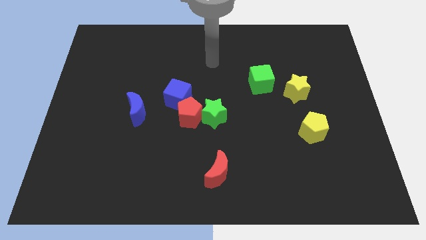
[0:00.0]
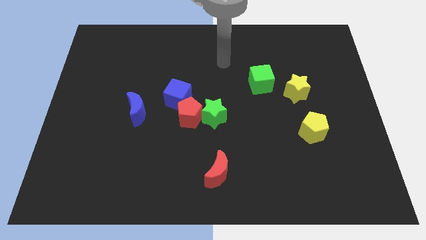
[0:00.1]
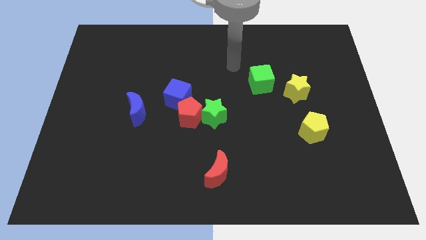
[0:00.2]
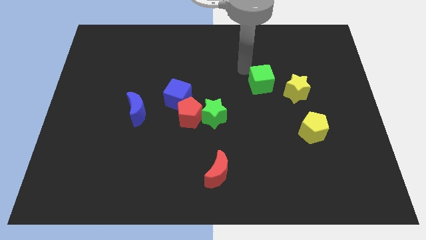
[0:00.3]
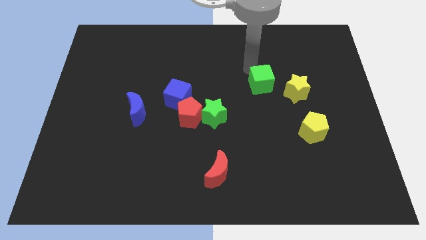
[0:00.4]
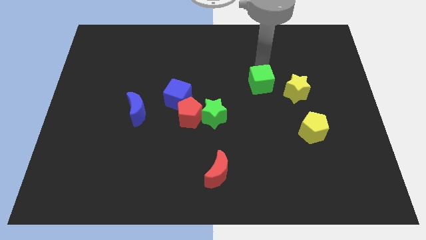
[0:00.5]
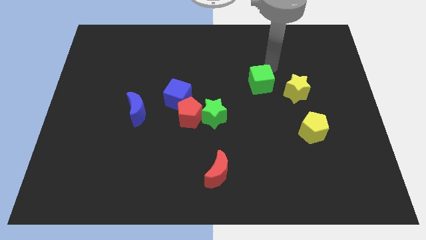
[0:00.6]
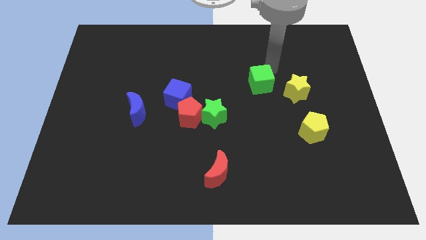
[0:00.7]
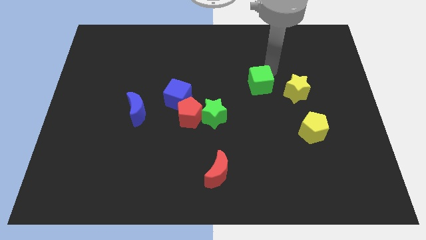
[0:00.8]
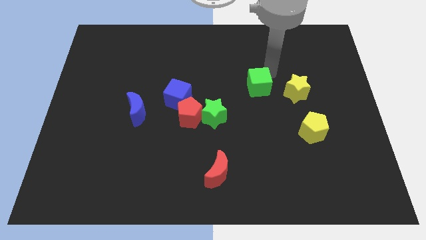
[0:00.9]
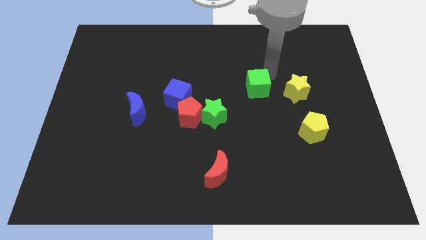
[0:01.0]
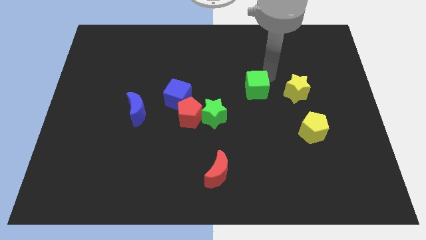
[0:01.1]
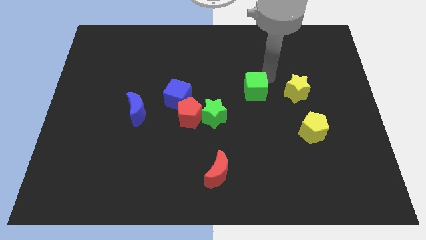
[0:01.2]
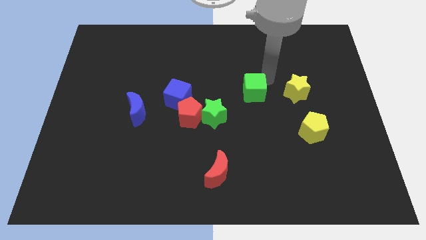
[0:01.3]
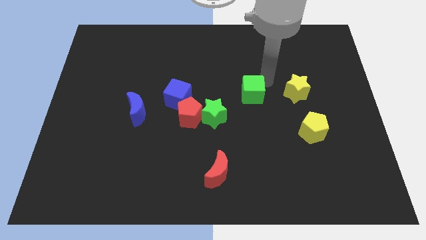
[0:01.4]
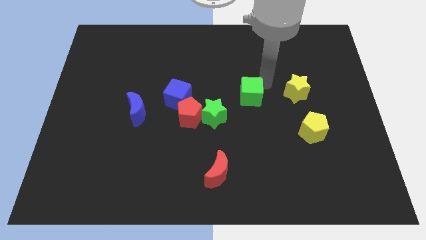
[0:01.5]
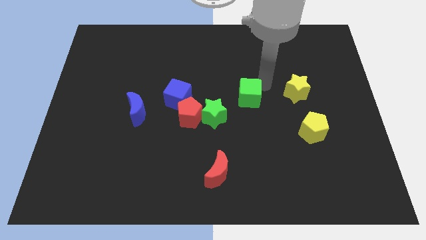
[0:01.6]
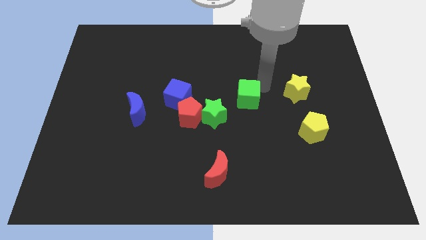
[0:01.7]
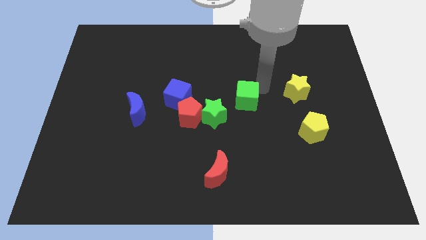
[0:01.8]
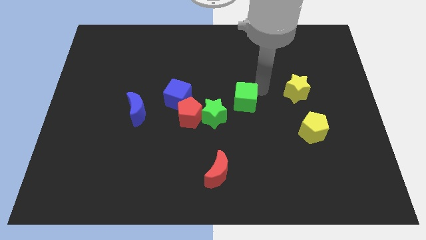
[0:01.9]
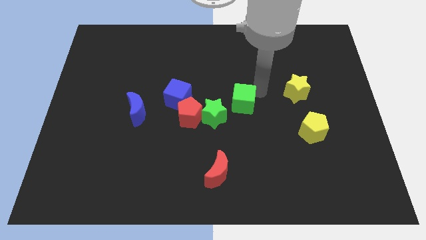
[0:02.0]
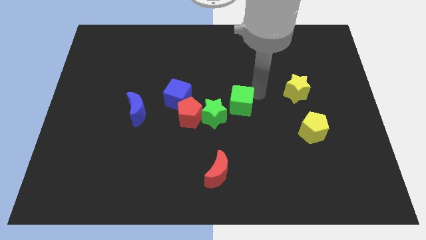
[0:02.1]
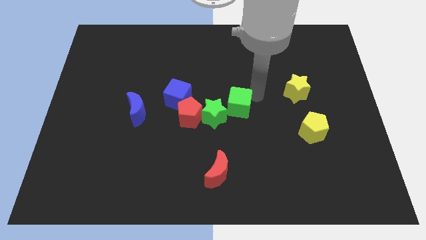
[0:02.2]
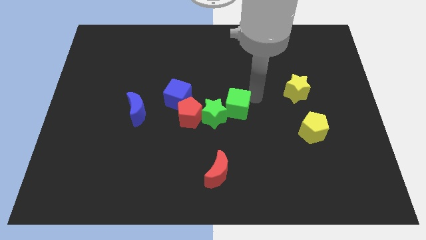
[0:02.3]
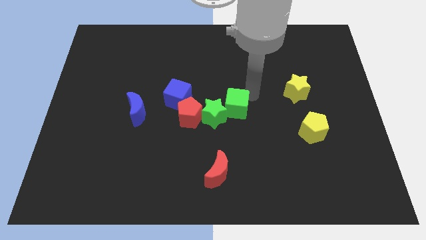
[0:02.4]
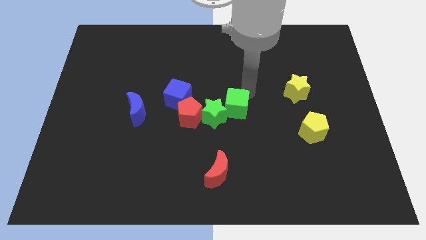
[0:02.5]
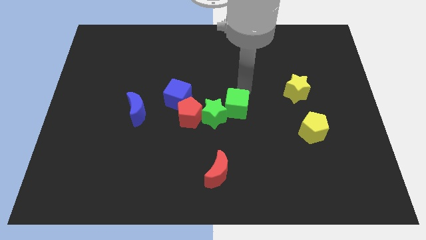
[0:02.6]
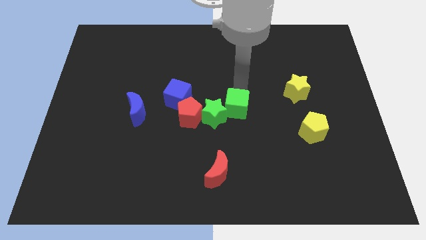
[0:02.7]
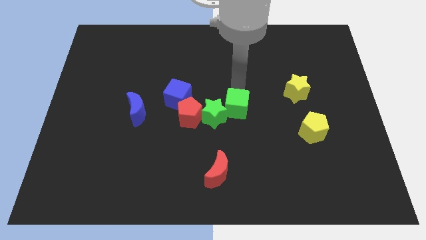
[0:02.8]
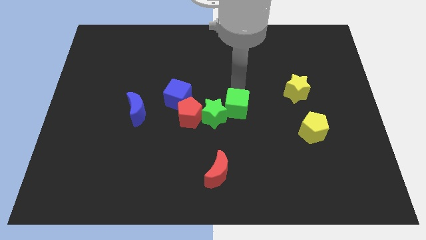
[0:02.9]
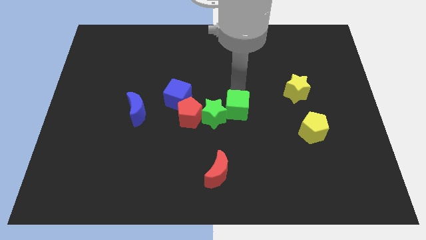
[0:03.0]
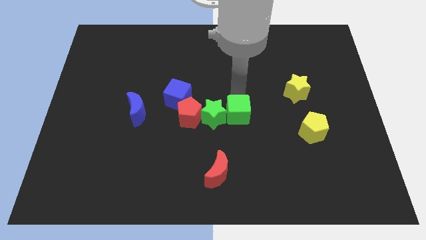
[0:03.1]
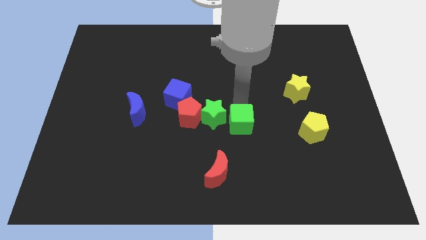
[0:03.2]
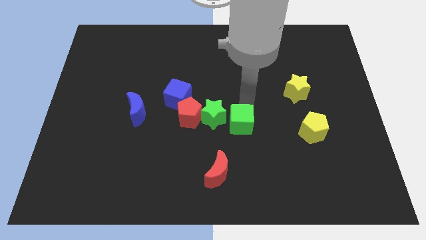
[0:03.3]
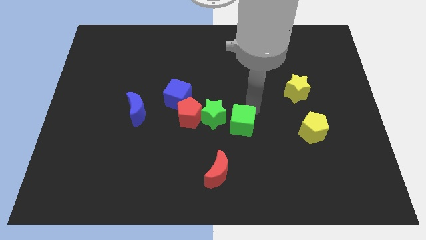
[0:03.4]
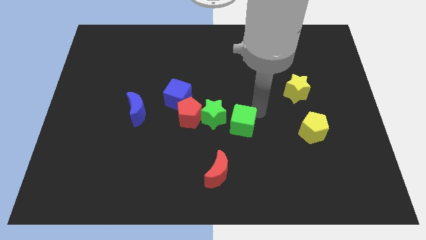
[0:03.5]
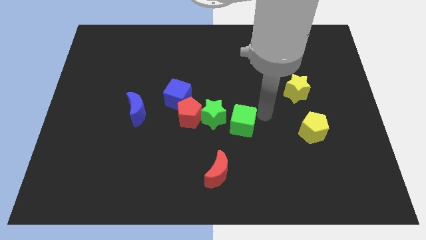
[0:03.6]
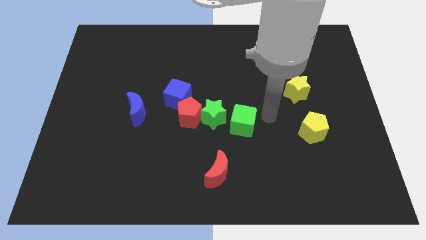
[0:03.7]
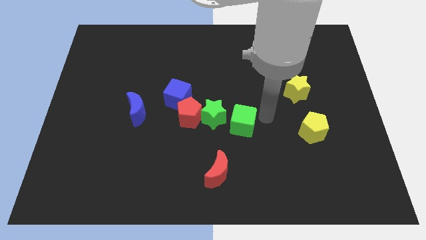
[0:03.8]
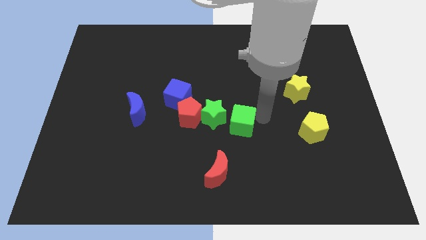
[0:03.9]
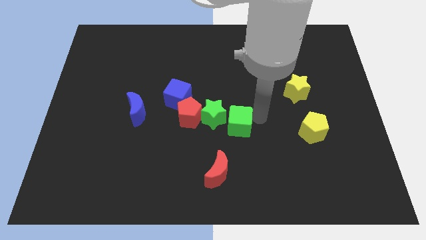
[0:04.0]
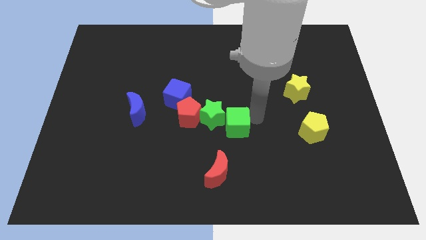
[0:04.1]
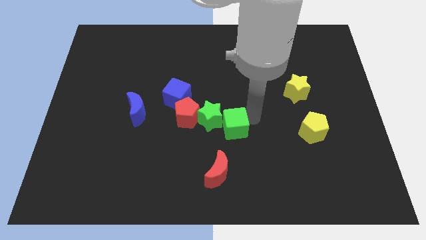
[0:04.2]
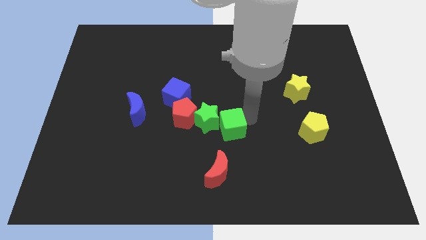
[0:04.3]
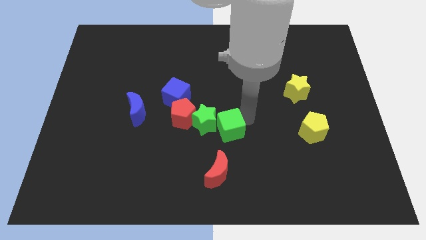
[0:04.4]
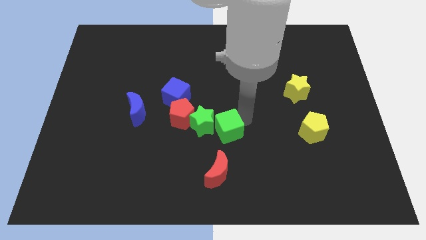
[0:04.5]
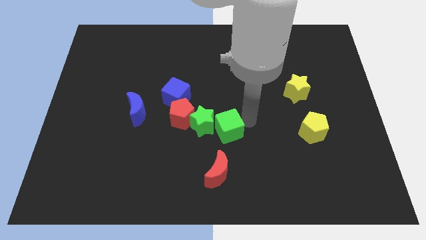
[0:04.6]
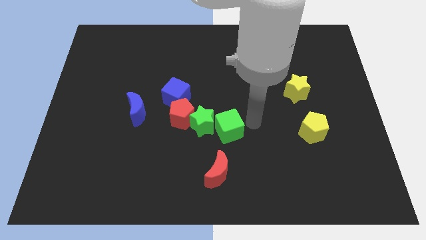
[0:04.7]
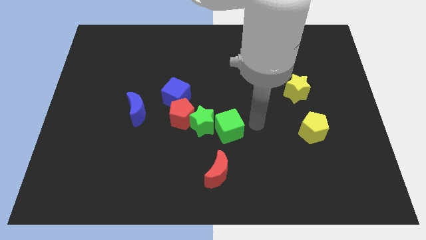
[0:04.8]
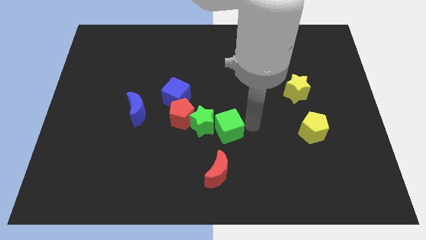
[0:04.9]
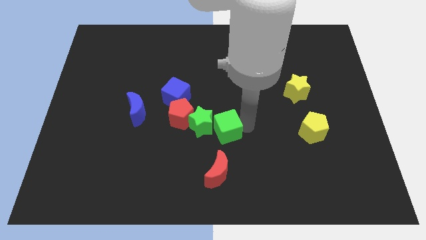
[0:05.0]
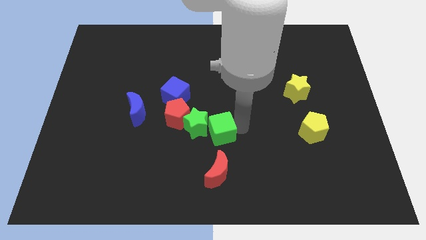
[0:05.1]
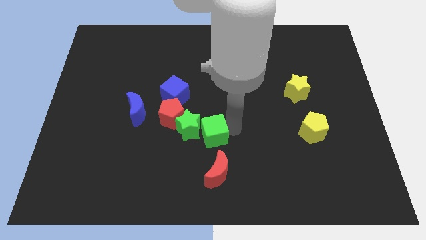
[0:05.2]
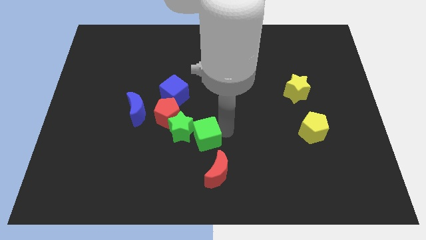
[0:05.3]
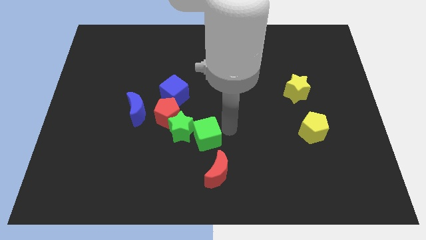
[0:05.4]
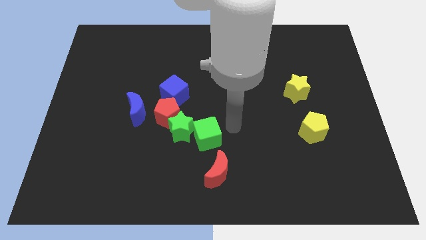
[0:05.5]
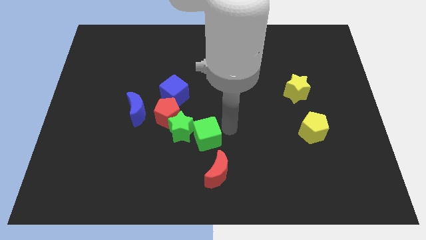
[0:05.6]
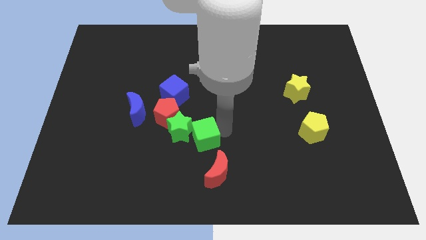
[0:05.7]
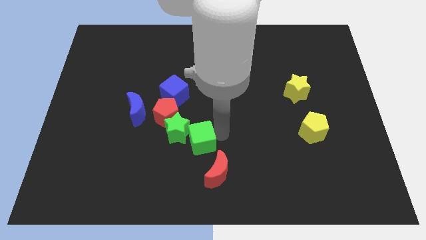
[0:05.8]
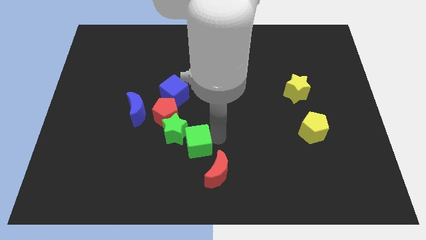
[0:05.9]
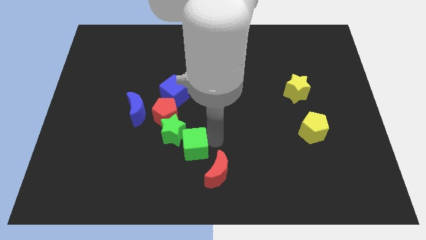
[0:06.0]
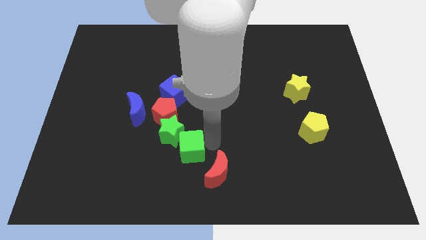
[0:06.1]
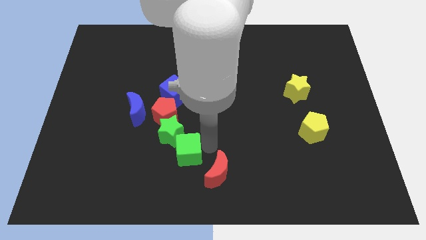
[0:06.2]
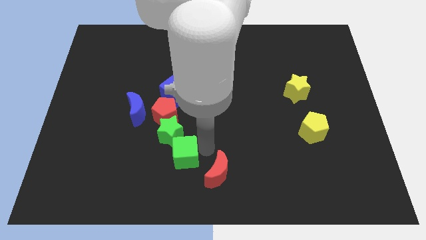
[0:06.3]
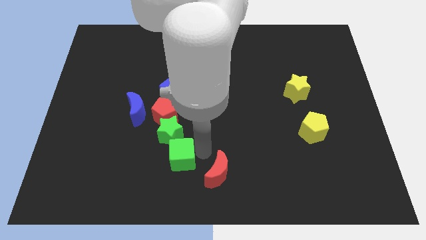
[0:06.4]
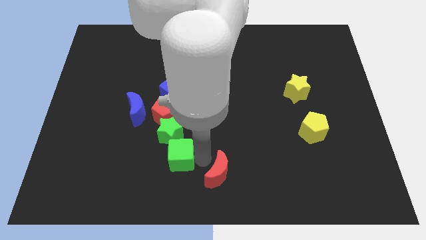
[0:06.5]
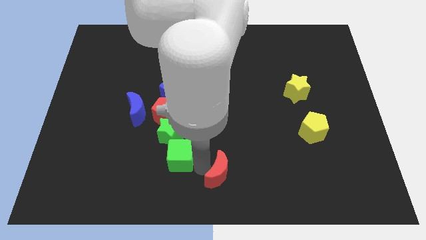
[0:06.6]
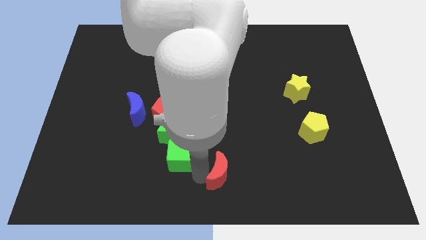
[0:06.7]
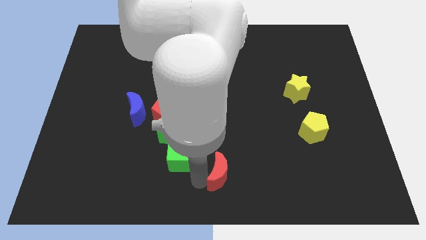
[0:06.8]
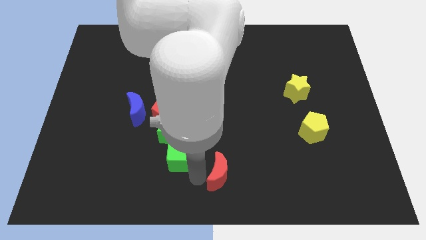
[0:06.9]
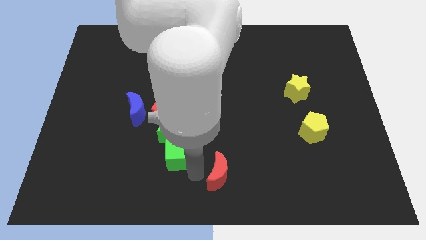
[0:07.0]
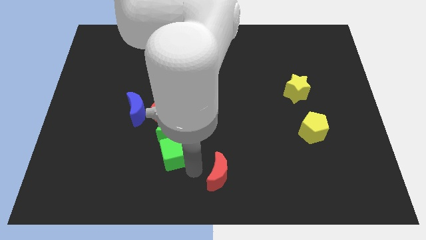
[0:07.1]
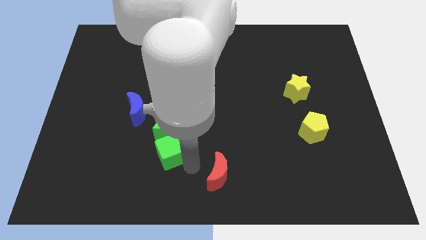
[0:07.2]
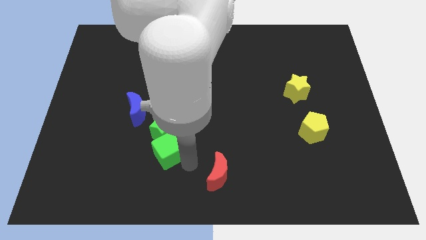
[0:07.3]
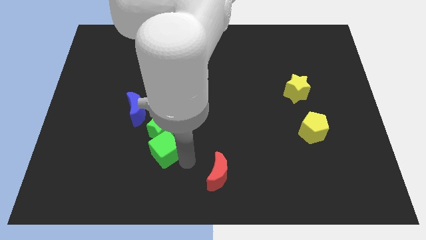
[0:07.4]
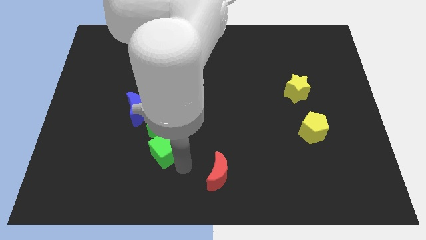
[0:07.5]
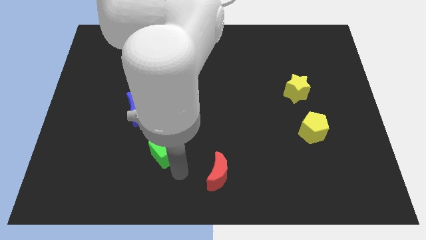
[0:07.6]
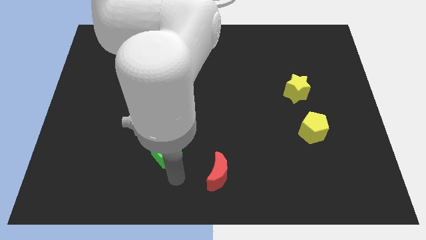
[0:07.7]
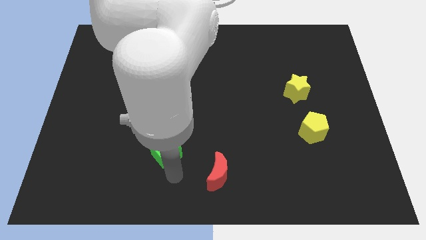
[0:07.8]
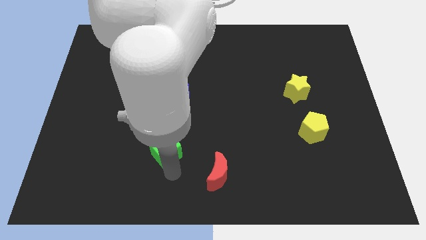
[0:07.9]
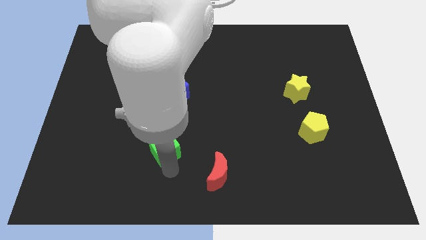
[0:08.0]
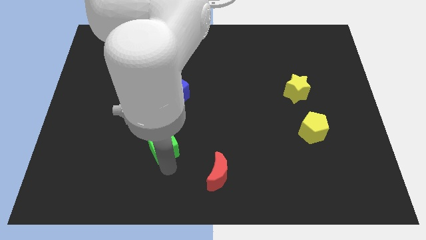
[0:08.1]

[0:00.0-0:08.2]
push the green cube diagonally down and to the right of the blue moon
